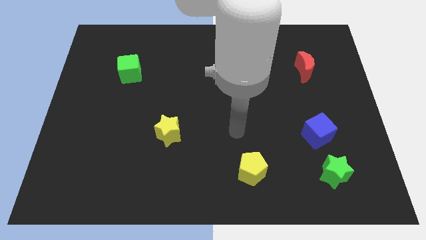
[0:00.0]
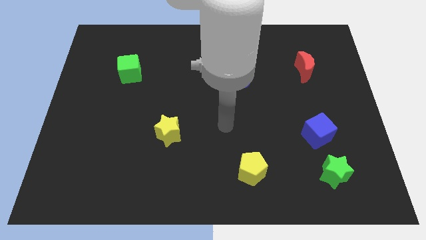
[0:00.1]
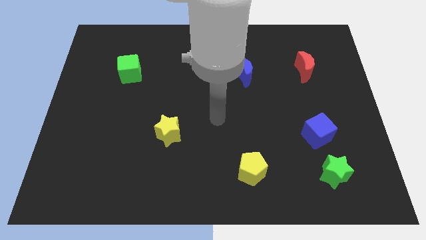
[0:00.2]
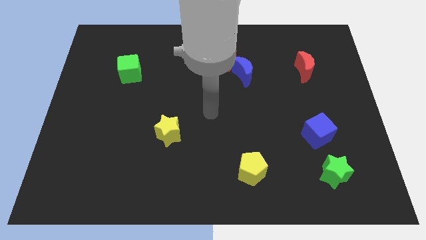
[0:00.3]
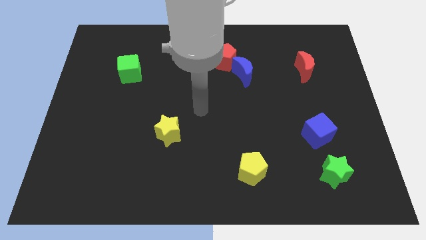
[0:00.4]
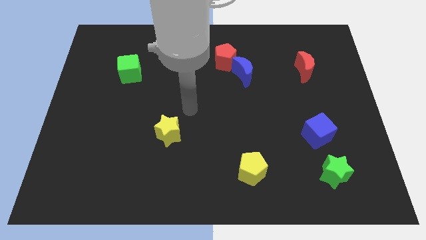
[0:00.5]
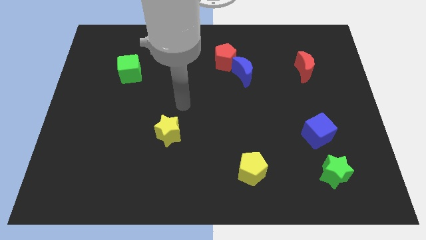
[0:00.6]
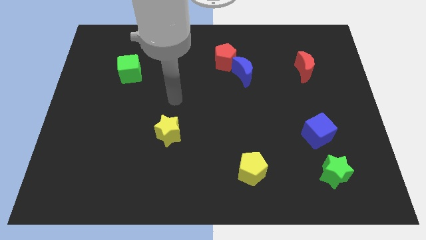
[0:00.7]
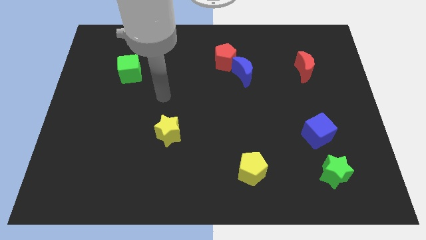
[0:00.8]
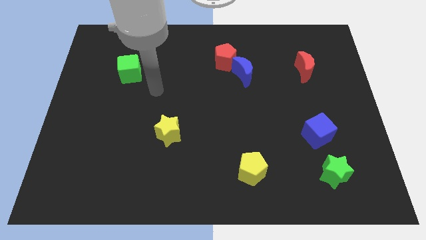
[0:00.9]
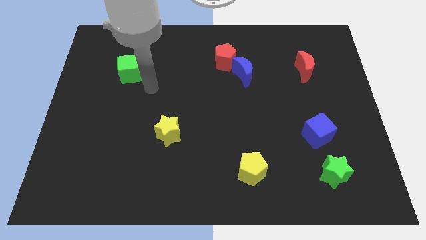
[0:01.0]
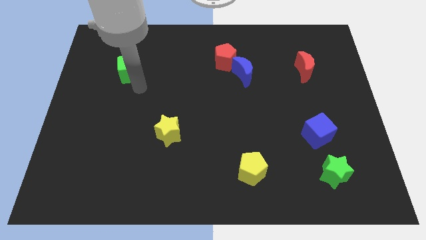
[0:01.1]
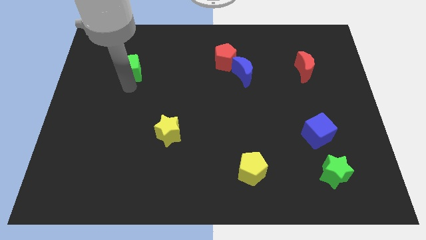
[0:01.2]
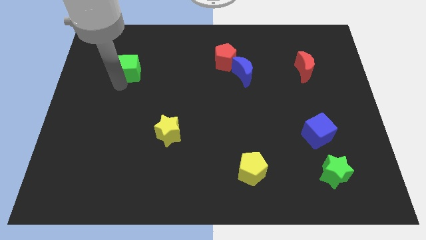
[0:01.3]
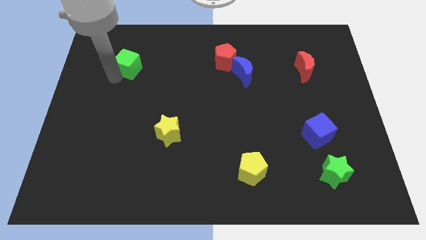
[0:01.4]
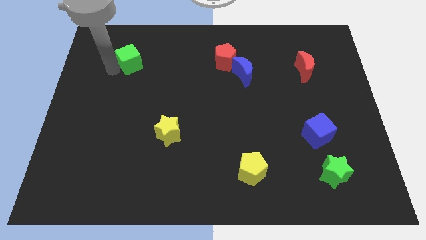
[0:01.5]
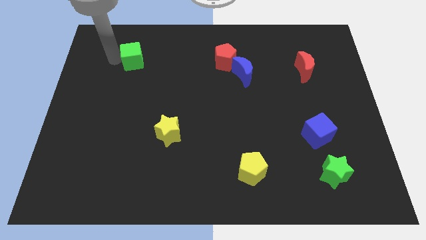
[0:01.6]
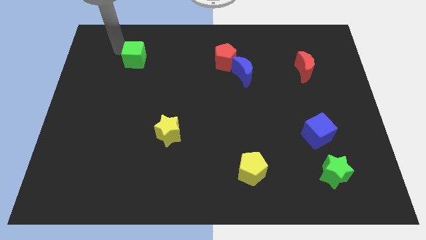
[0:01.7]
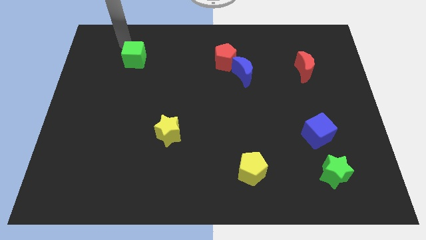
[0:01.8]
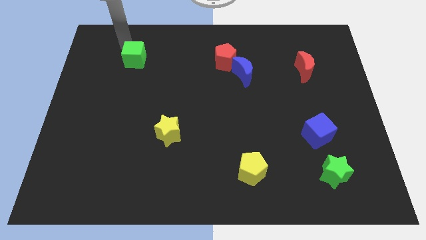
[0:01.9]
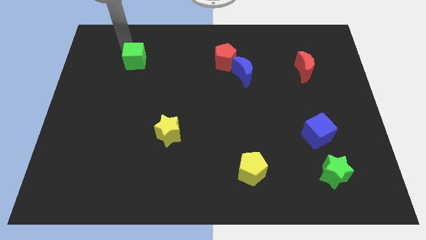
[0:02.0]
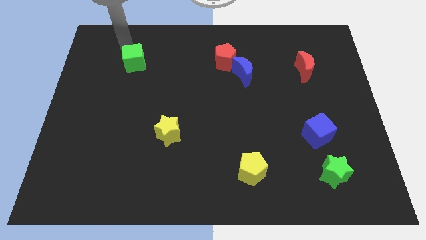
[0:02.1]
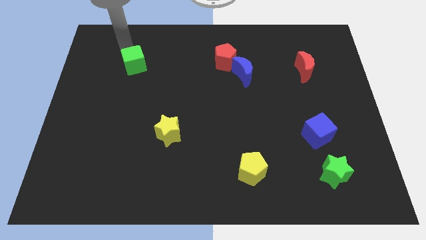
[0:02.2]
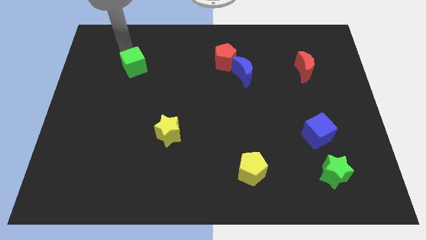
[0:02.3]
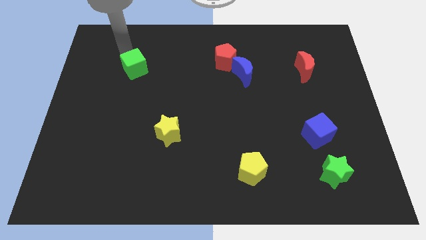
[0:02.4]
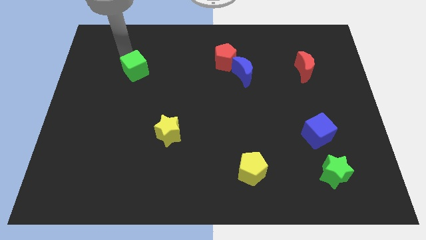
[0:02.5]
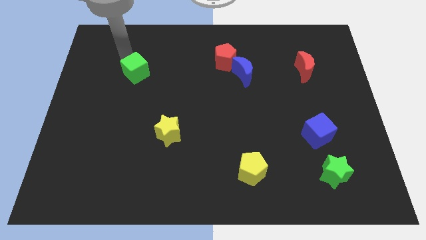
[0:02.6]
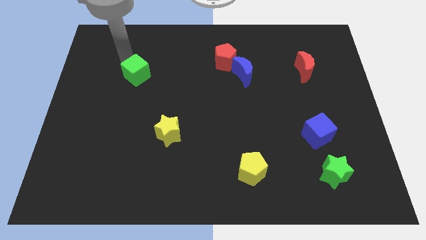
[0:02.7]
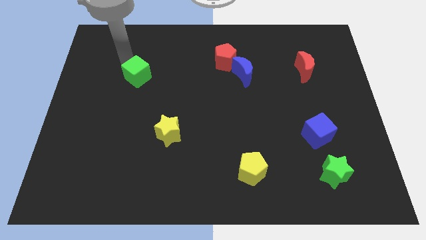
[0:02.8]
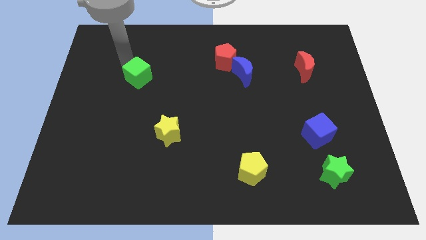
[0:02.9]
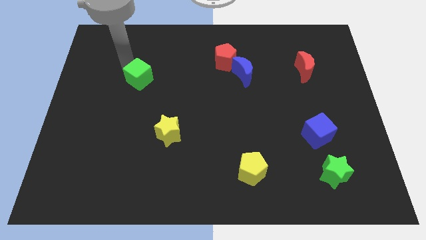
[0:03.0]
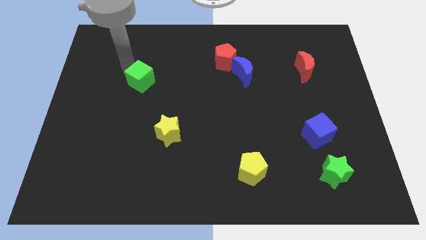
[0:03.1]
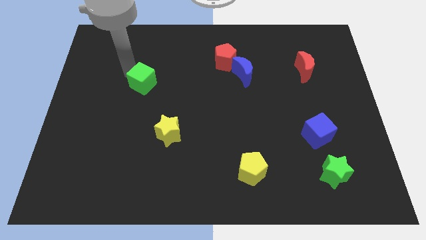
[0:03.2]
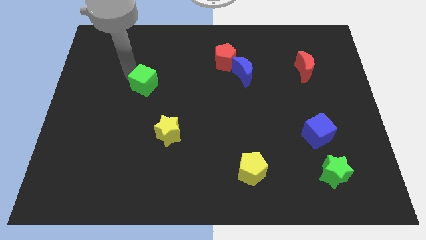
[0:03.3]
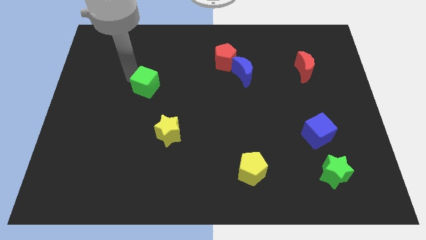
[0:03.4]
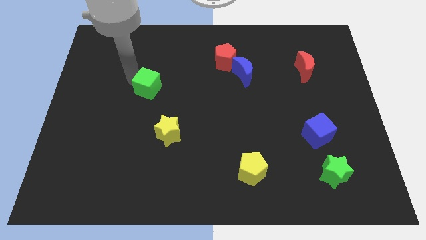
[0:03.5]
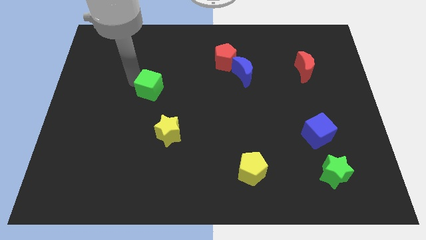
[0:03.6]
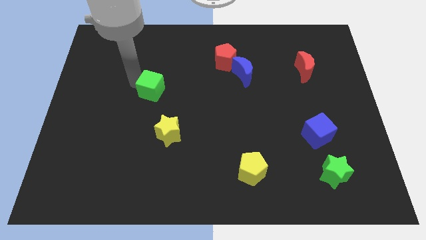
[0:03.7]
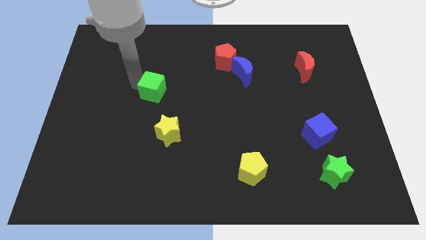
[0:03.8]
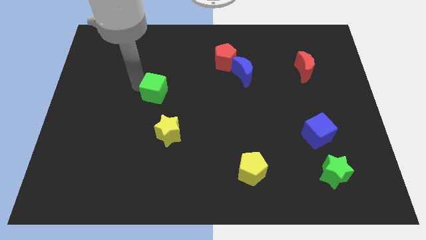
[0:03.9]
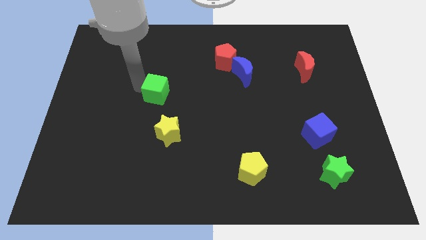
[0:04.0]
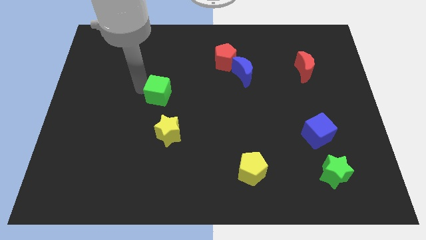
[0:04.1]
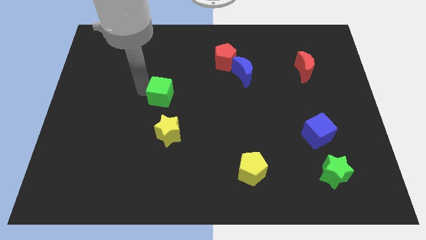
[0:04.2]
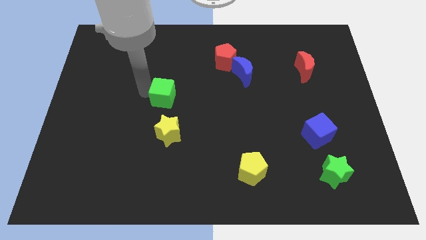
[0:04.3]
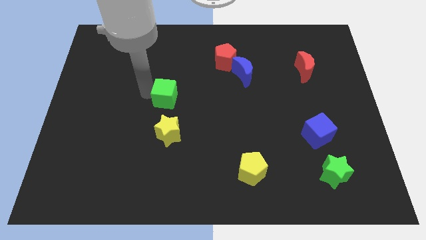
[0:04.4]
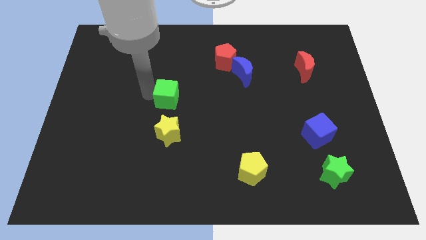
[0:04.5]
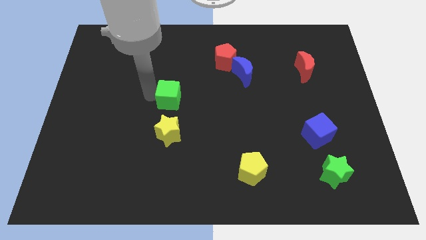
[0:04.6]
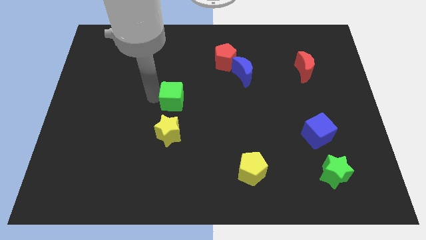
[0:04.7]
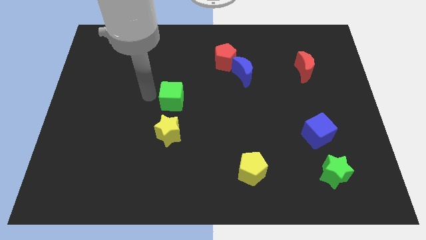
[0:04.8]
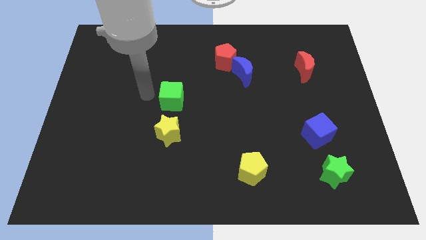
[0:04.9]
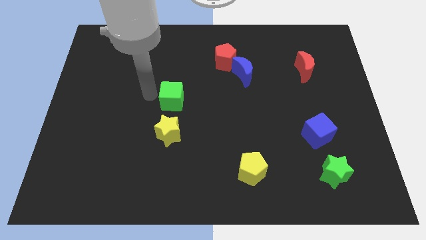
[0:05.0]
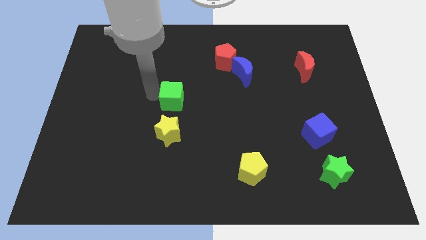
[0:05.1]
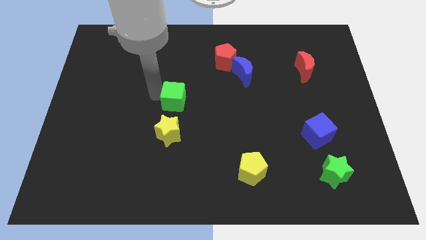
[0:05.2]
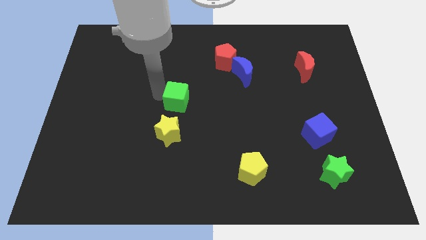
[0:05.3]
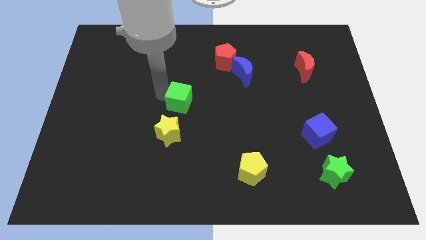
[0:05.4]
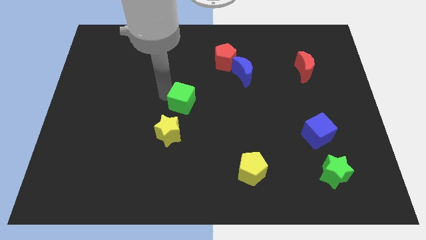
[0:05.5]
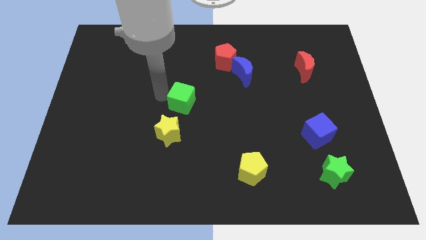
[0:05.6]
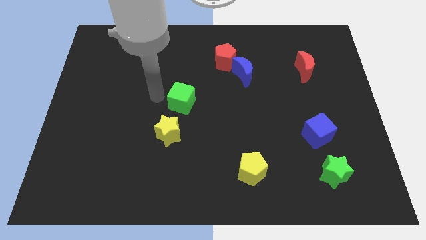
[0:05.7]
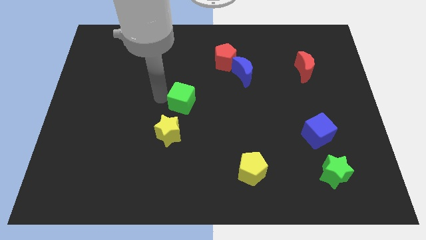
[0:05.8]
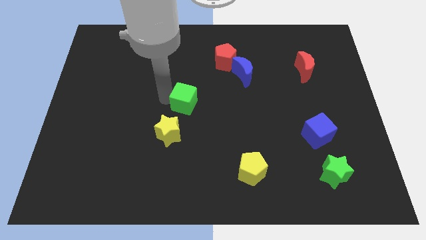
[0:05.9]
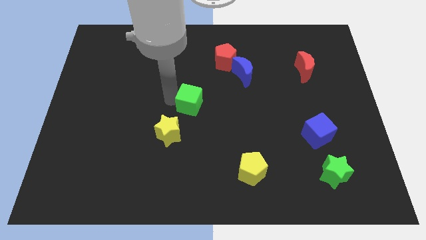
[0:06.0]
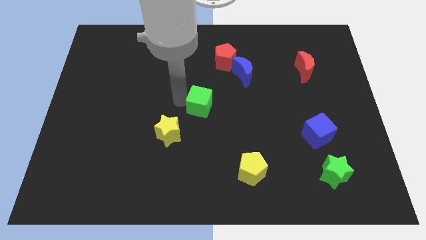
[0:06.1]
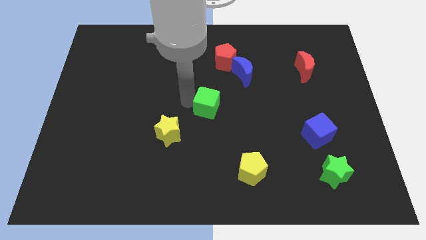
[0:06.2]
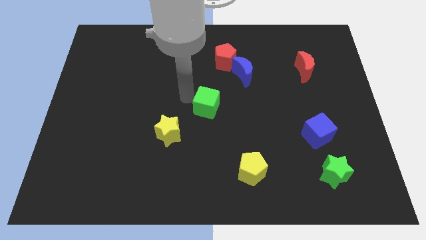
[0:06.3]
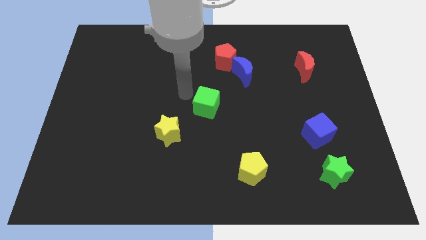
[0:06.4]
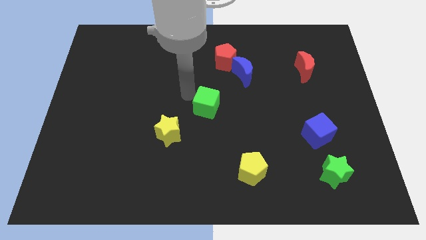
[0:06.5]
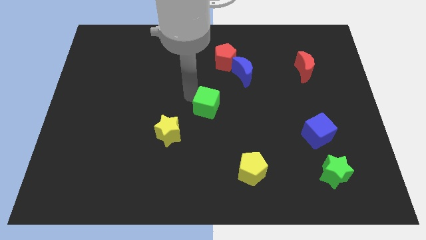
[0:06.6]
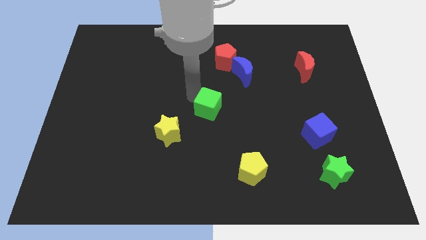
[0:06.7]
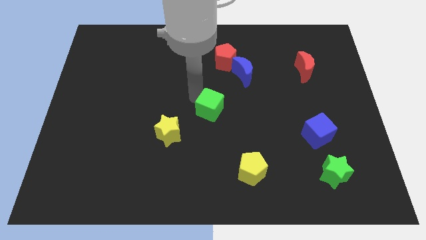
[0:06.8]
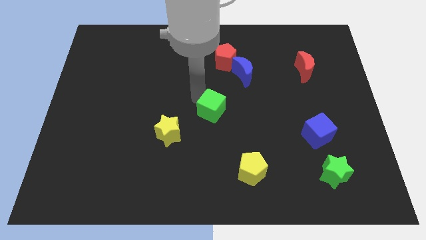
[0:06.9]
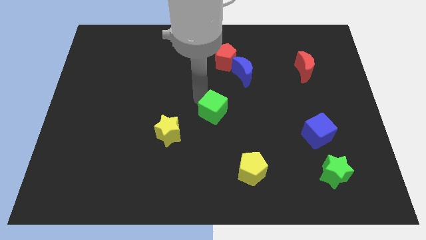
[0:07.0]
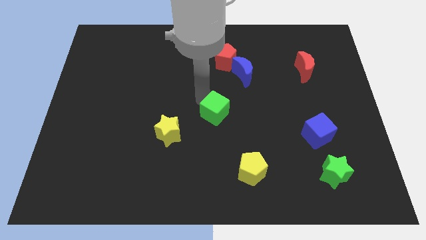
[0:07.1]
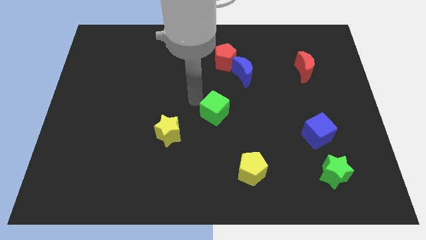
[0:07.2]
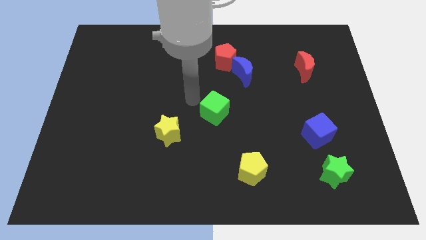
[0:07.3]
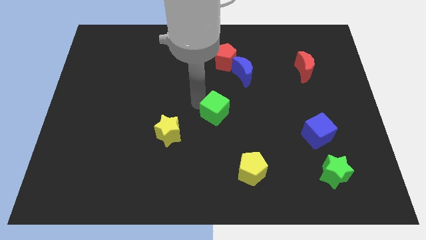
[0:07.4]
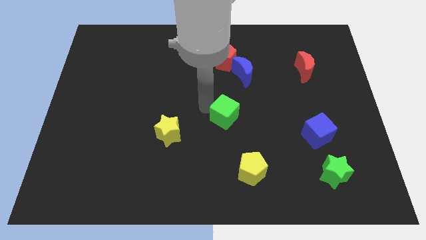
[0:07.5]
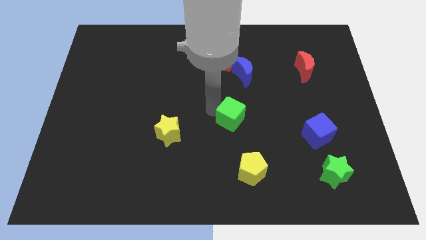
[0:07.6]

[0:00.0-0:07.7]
move the green cube to the top side of the yellow pentagon
